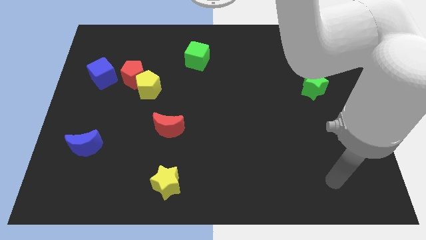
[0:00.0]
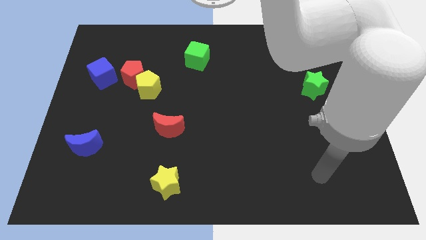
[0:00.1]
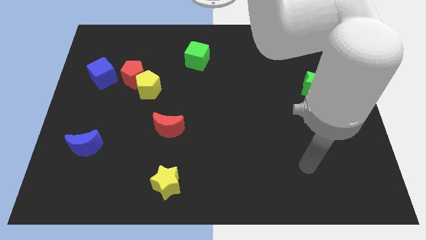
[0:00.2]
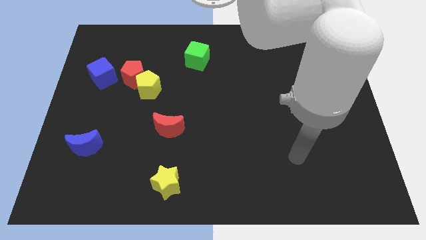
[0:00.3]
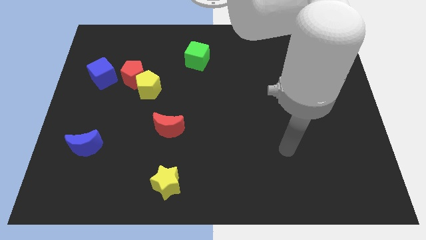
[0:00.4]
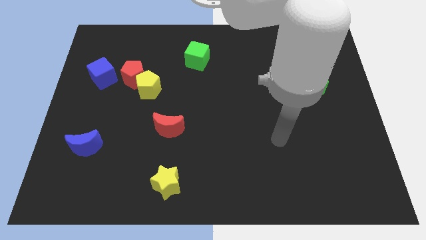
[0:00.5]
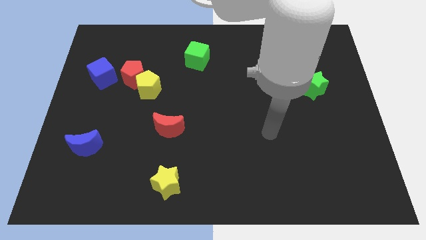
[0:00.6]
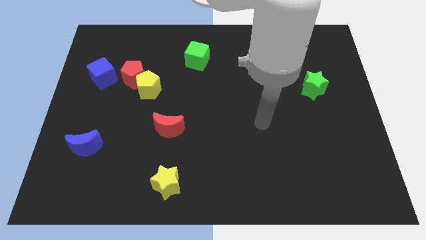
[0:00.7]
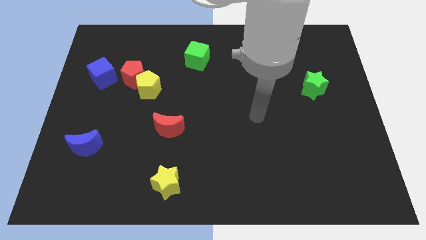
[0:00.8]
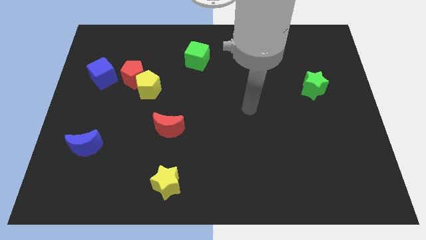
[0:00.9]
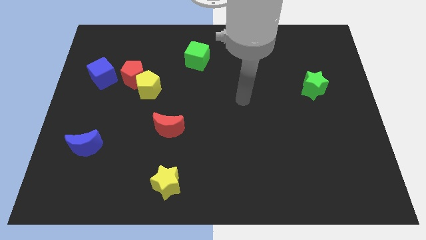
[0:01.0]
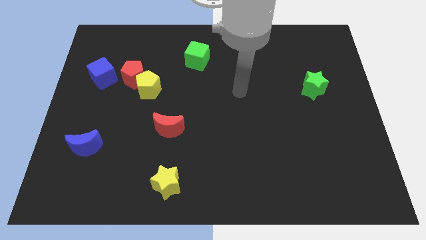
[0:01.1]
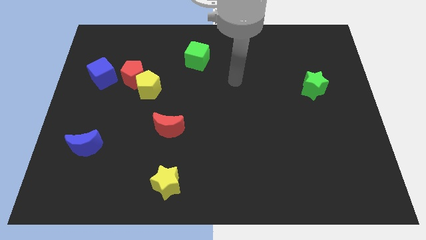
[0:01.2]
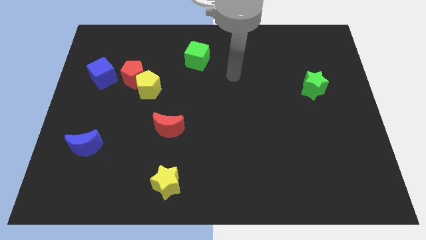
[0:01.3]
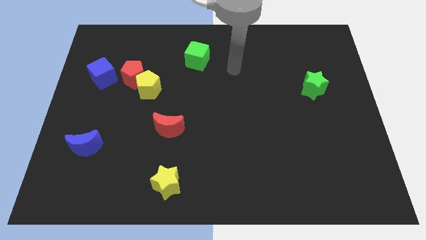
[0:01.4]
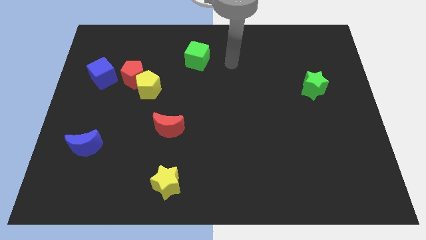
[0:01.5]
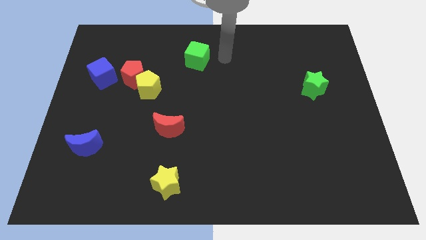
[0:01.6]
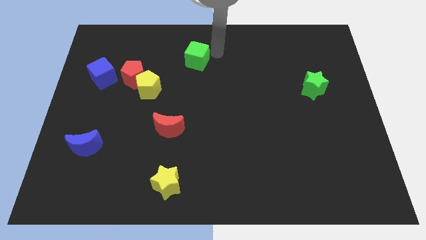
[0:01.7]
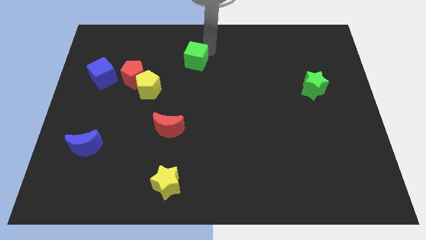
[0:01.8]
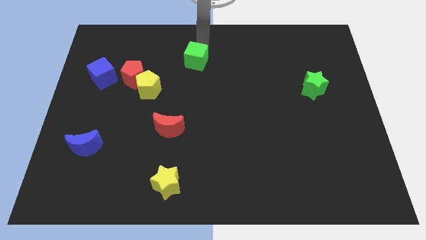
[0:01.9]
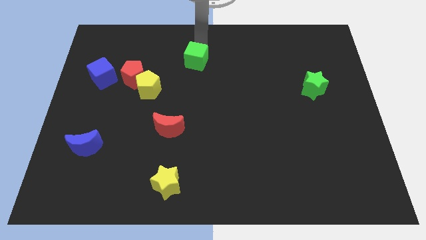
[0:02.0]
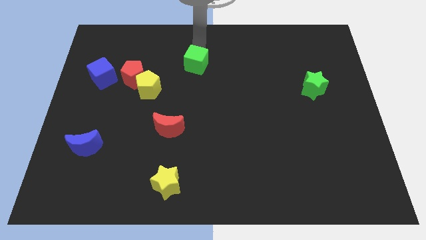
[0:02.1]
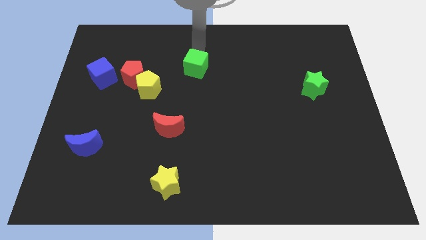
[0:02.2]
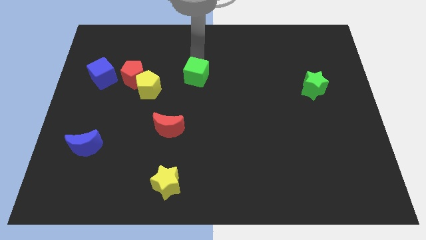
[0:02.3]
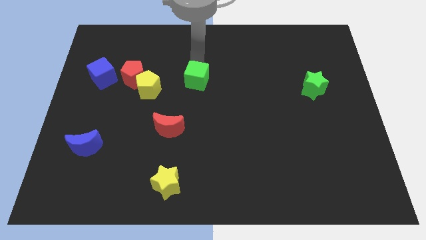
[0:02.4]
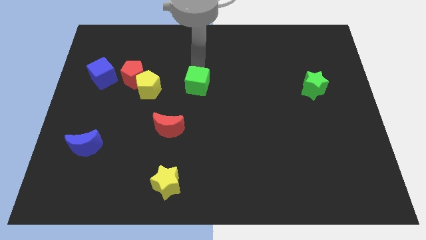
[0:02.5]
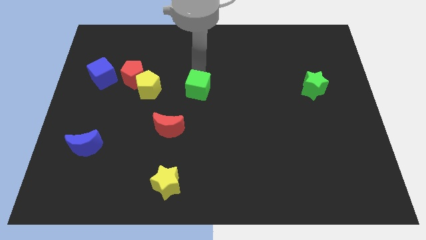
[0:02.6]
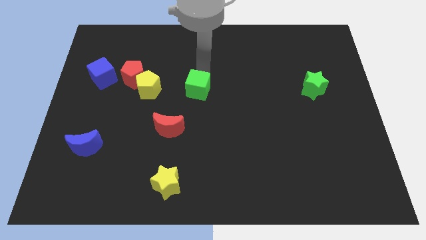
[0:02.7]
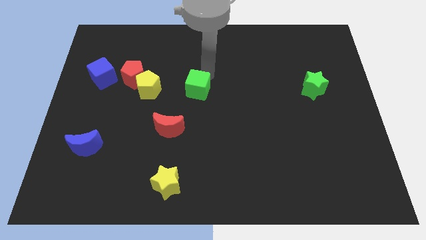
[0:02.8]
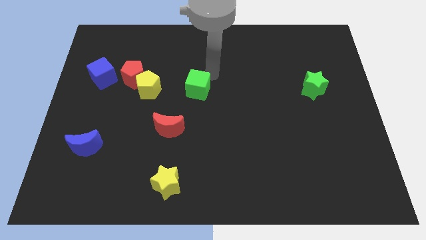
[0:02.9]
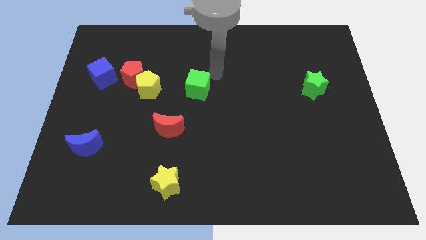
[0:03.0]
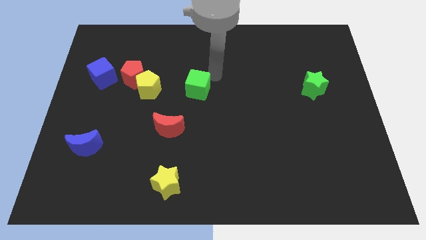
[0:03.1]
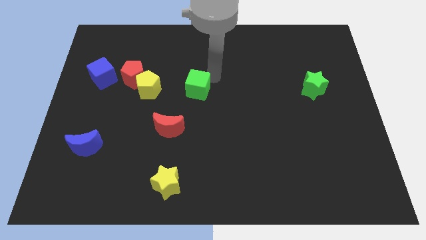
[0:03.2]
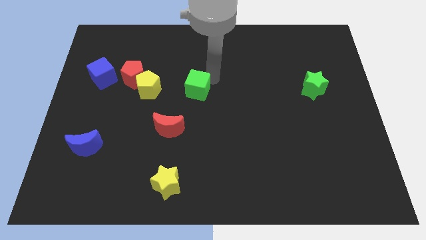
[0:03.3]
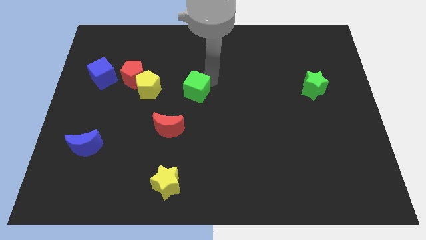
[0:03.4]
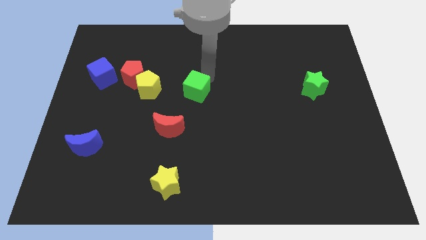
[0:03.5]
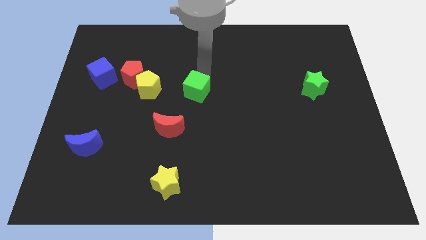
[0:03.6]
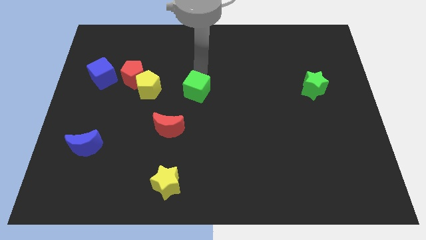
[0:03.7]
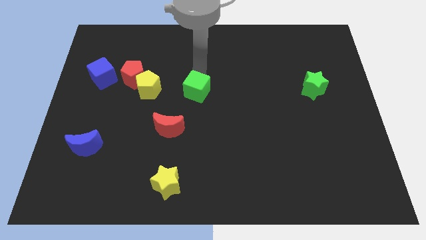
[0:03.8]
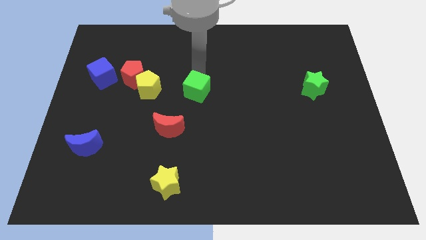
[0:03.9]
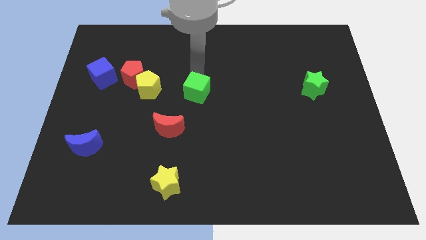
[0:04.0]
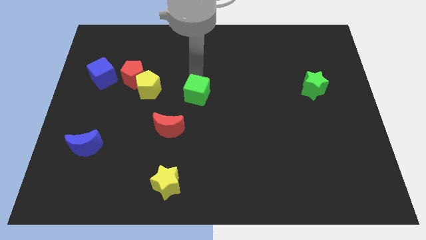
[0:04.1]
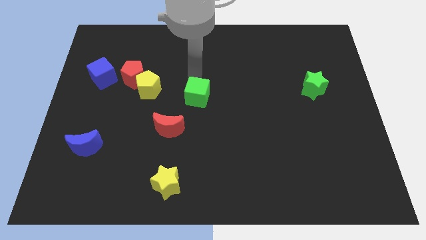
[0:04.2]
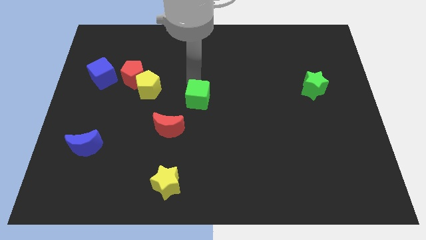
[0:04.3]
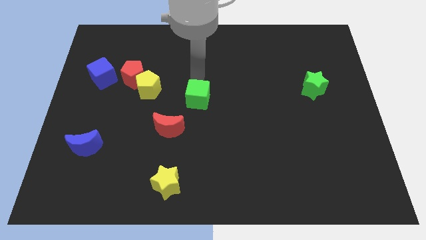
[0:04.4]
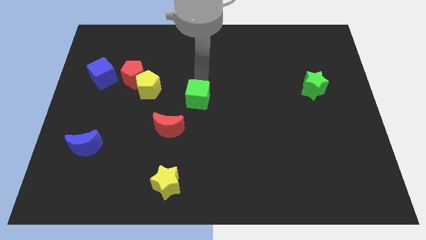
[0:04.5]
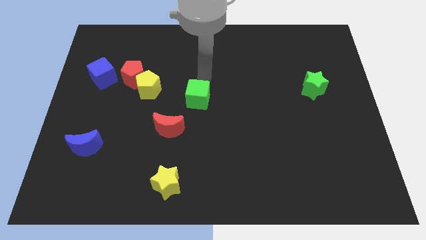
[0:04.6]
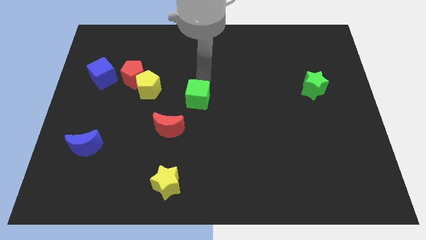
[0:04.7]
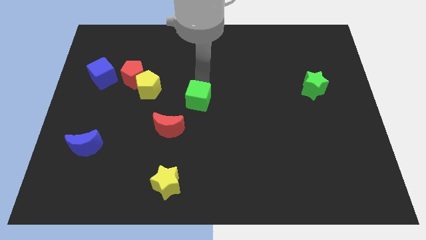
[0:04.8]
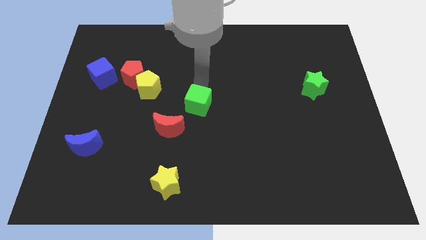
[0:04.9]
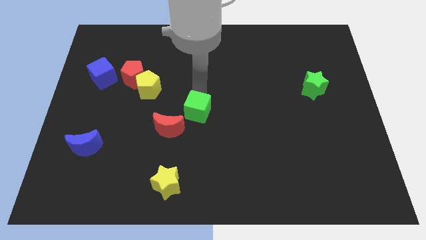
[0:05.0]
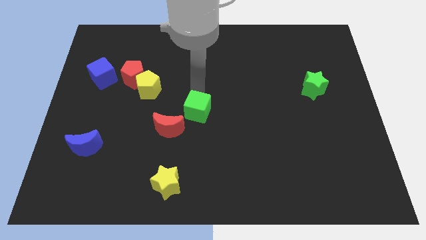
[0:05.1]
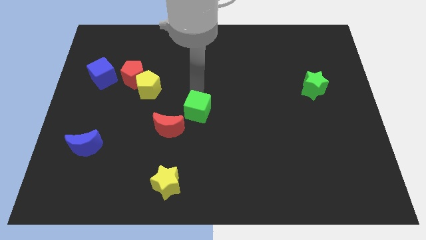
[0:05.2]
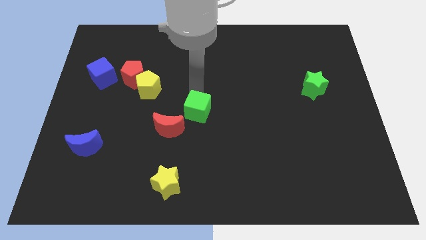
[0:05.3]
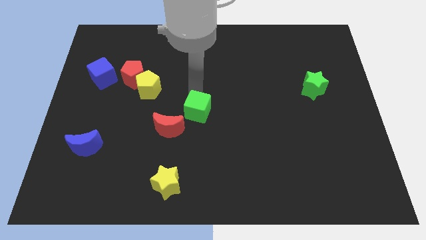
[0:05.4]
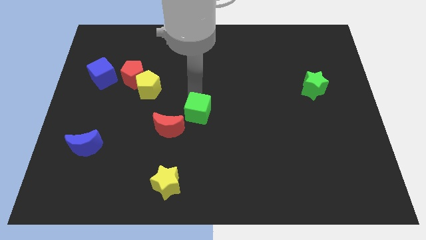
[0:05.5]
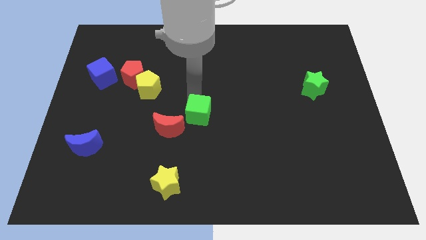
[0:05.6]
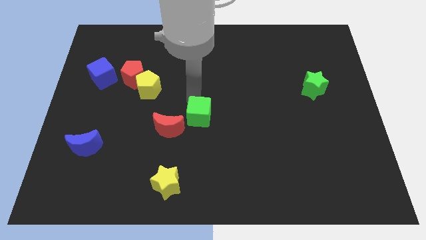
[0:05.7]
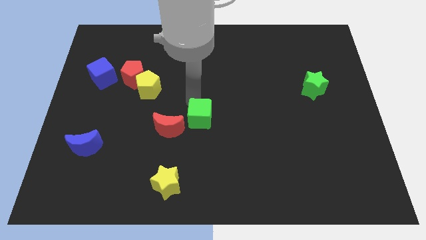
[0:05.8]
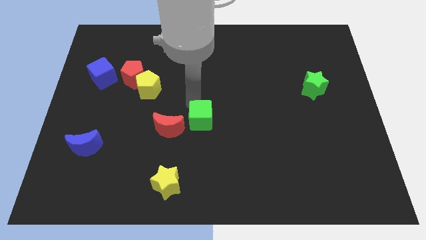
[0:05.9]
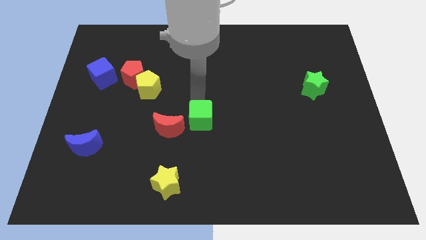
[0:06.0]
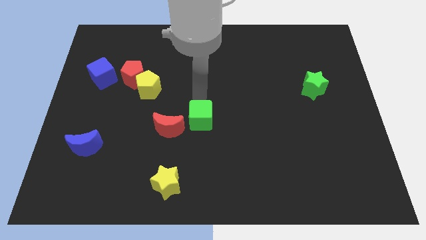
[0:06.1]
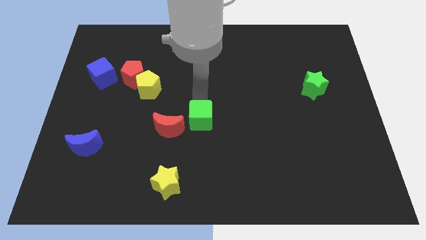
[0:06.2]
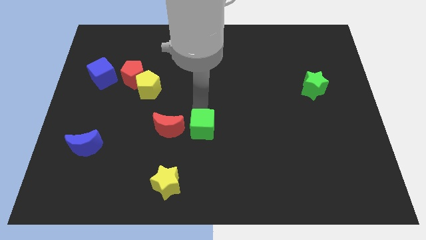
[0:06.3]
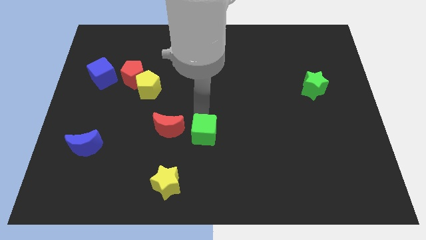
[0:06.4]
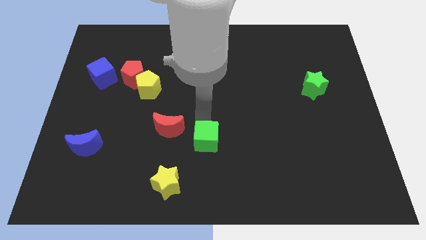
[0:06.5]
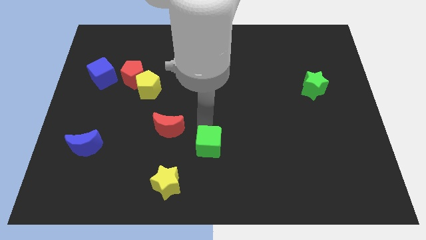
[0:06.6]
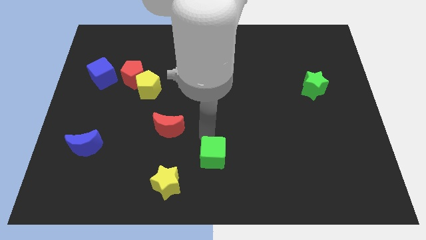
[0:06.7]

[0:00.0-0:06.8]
slide the green cube to the bottom side
